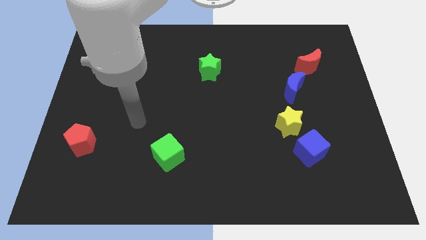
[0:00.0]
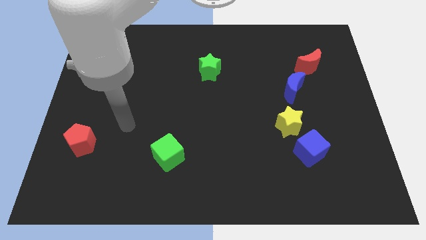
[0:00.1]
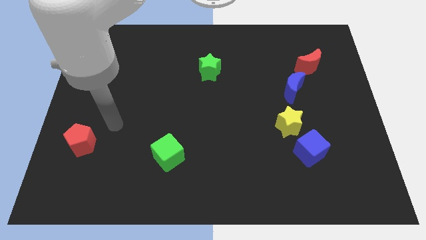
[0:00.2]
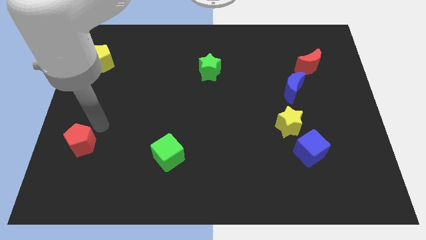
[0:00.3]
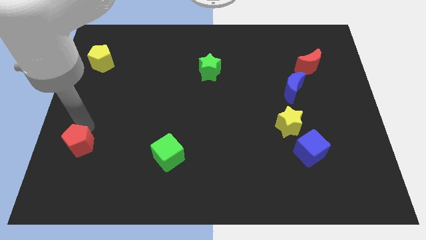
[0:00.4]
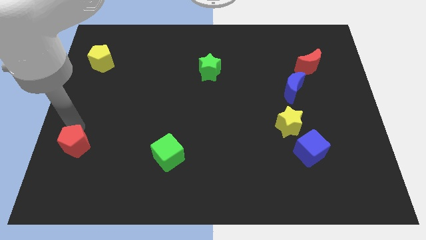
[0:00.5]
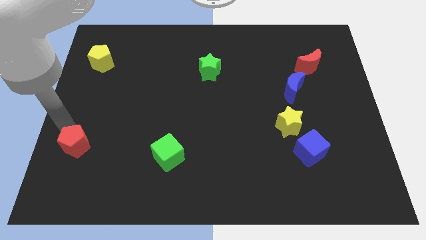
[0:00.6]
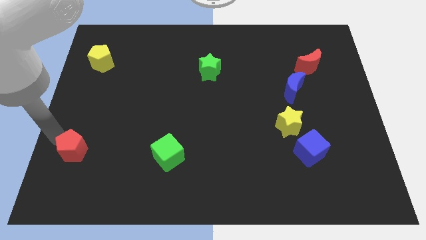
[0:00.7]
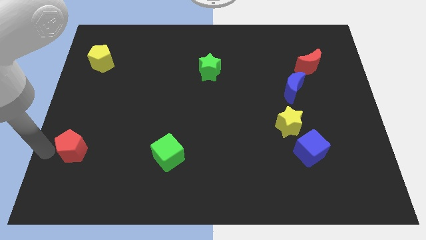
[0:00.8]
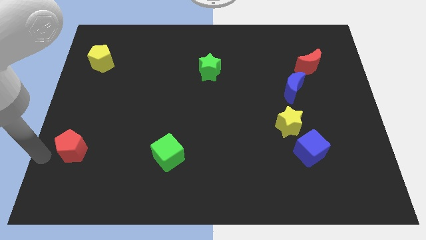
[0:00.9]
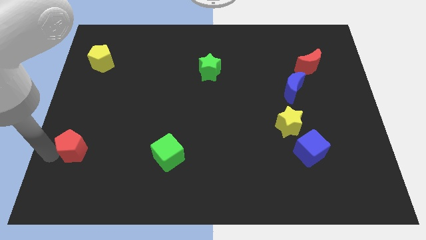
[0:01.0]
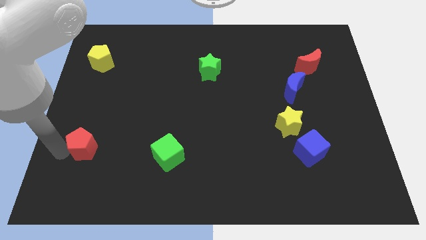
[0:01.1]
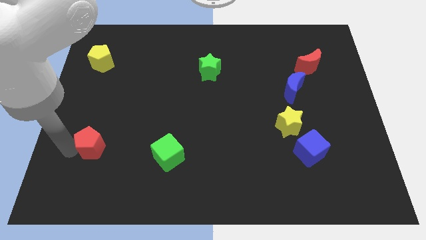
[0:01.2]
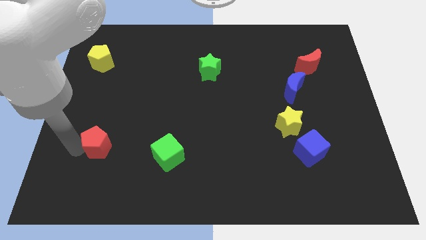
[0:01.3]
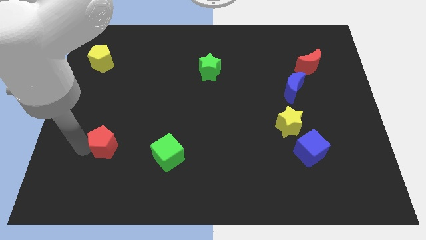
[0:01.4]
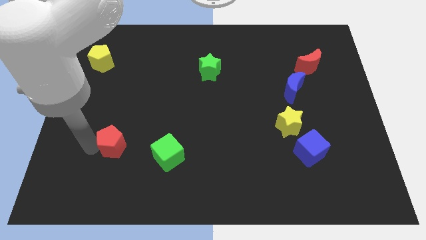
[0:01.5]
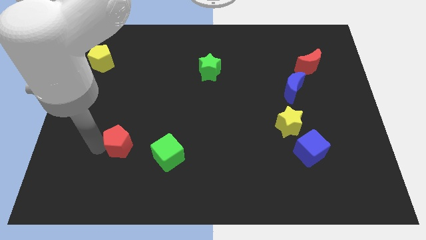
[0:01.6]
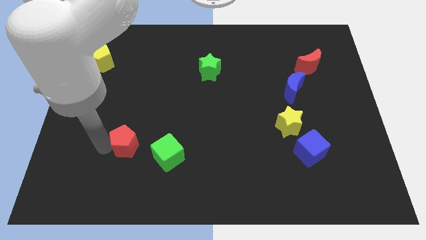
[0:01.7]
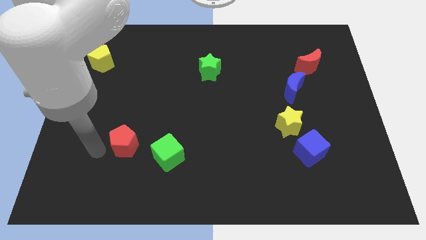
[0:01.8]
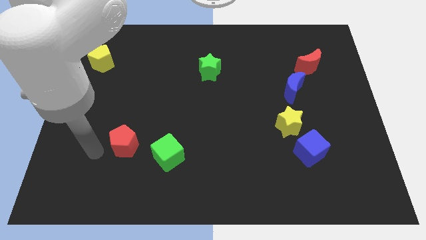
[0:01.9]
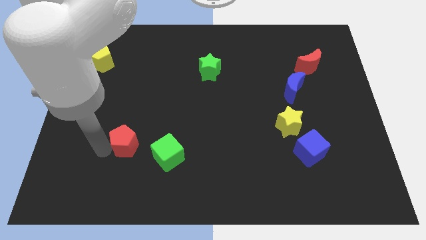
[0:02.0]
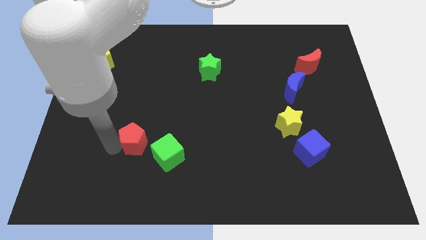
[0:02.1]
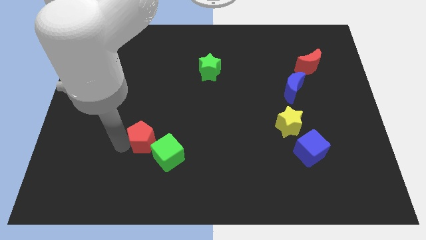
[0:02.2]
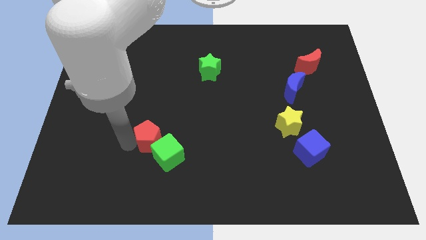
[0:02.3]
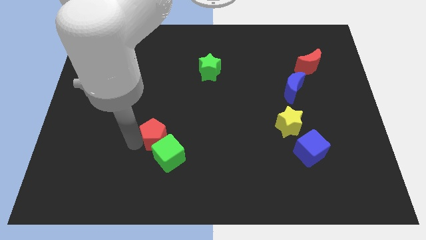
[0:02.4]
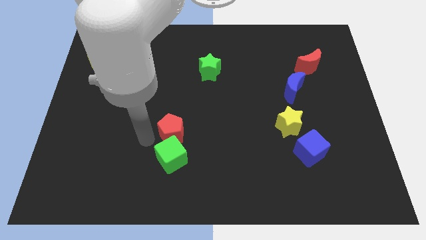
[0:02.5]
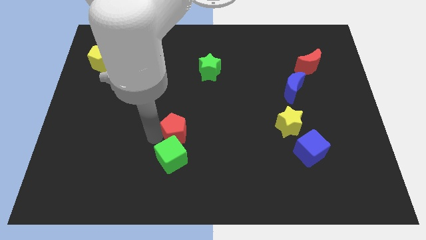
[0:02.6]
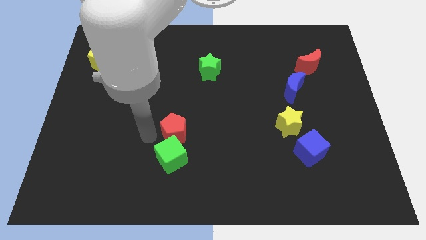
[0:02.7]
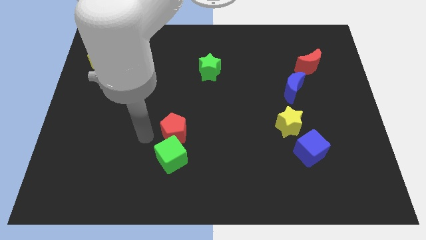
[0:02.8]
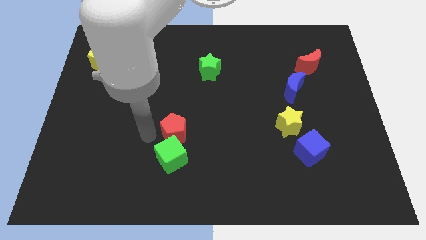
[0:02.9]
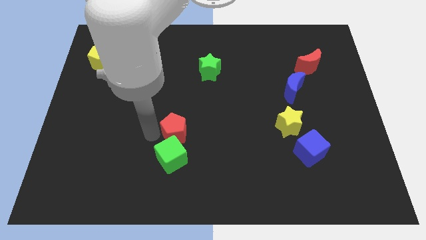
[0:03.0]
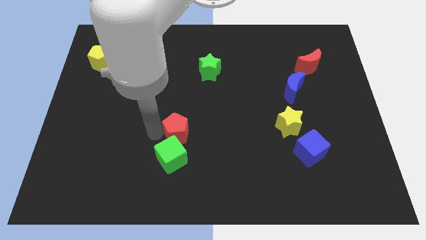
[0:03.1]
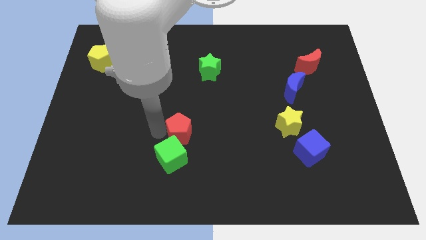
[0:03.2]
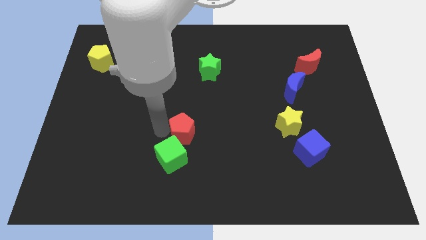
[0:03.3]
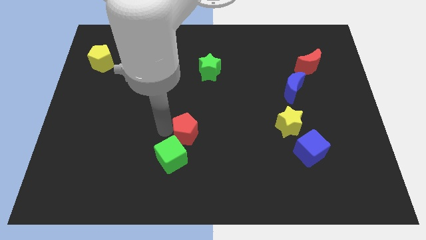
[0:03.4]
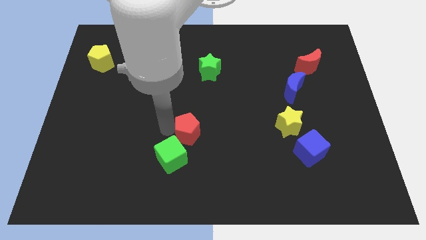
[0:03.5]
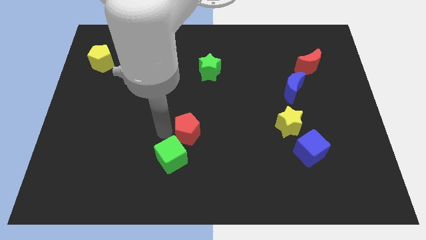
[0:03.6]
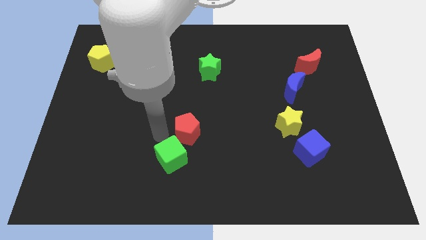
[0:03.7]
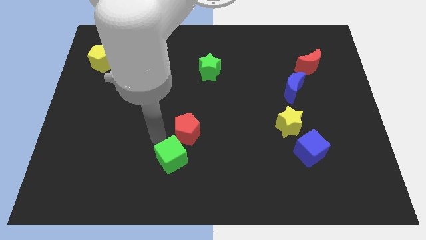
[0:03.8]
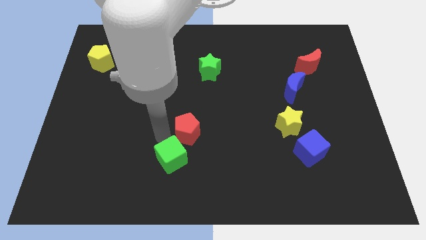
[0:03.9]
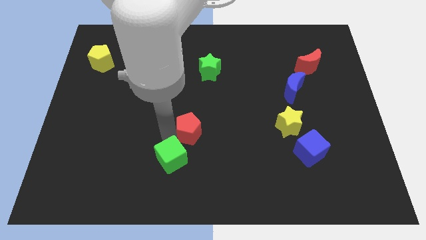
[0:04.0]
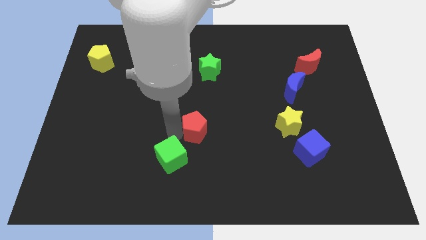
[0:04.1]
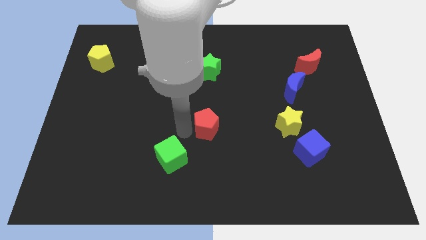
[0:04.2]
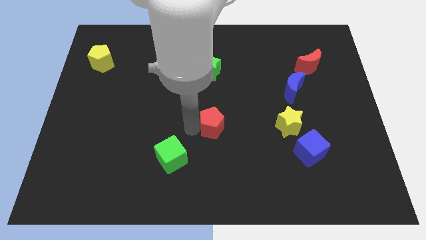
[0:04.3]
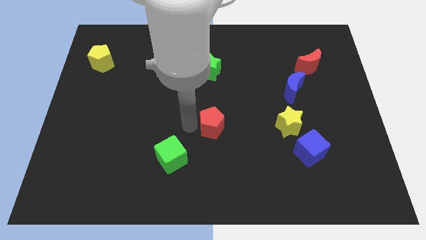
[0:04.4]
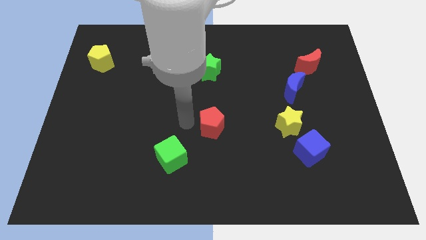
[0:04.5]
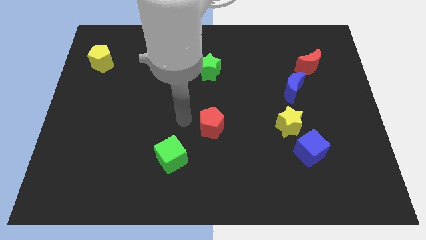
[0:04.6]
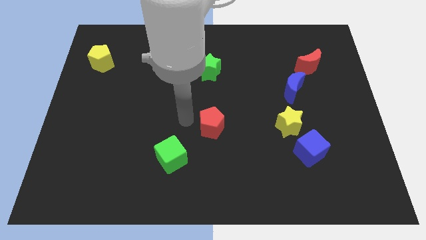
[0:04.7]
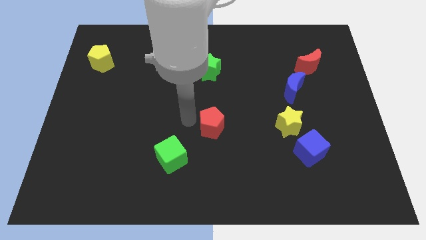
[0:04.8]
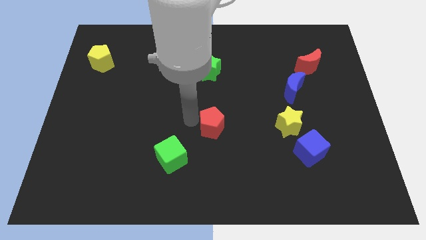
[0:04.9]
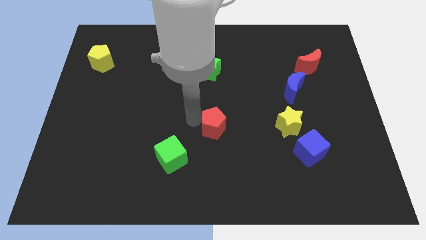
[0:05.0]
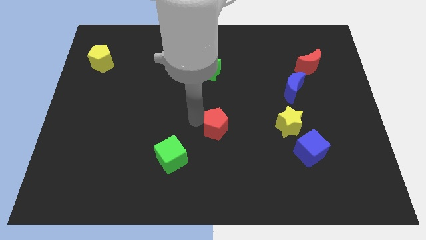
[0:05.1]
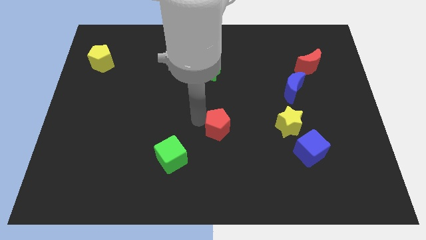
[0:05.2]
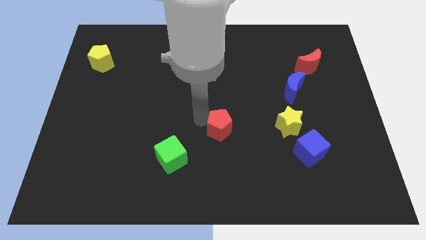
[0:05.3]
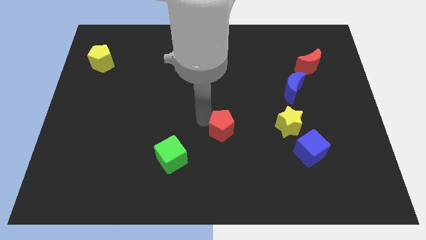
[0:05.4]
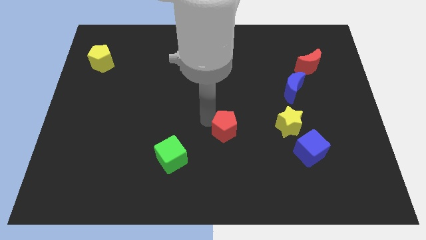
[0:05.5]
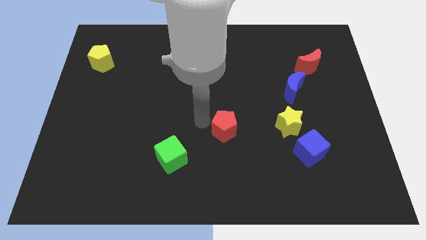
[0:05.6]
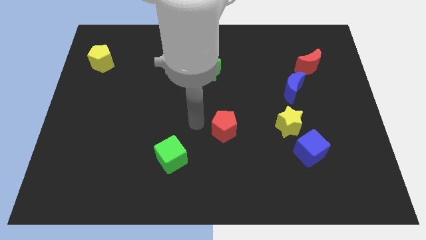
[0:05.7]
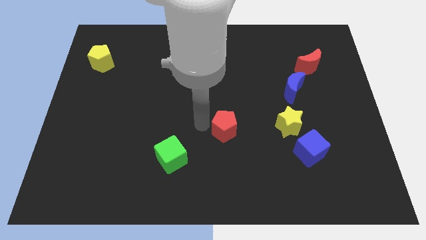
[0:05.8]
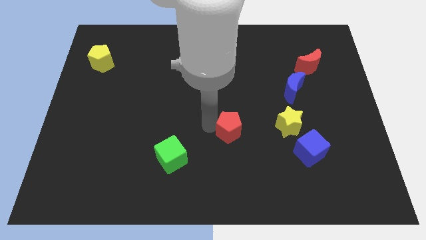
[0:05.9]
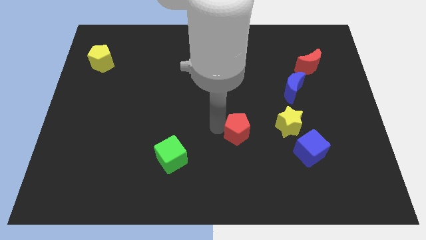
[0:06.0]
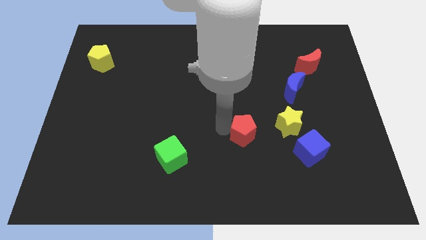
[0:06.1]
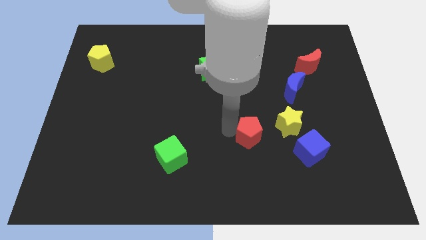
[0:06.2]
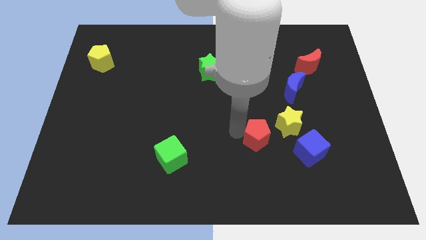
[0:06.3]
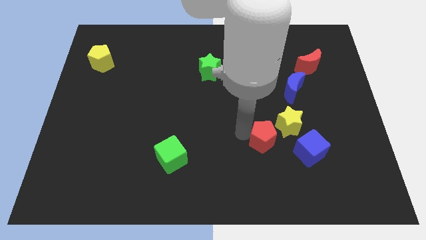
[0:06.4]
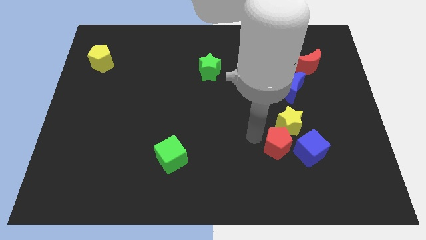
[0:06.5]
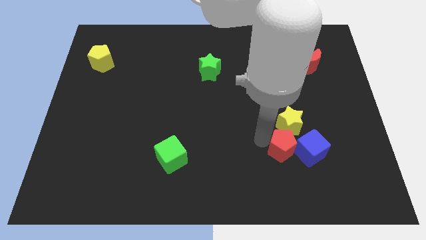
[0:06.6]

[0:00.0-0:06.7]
move the red pentagon towards the blue cube

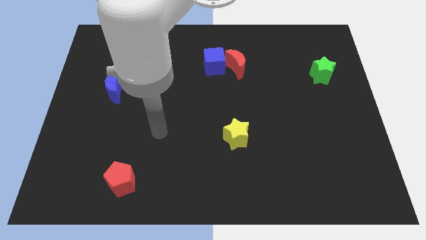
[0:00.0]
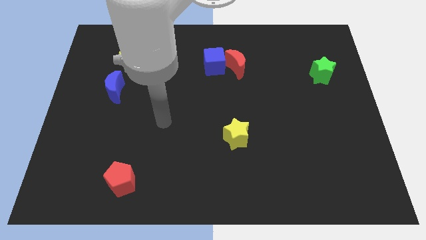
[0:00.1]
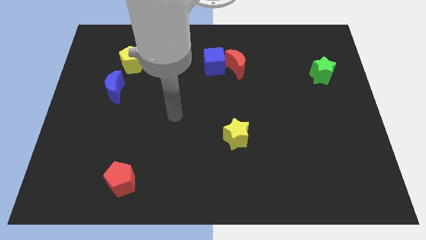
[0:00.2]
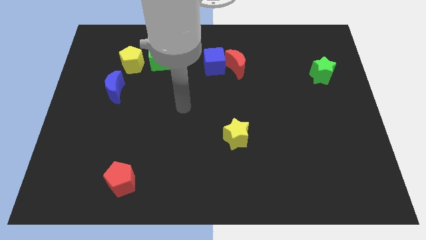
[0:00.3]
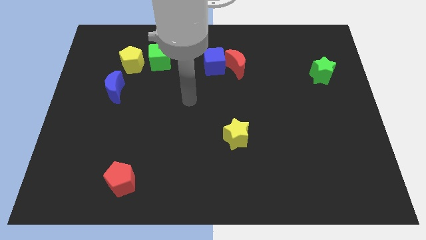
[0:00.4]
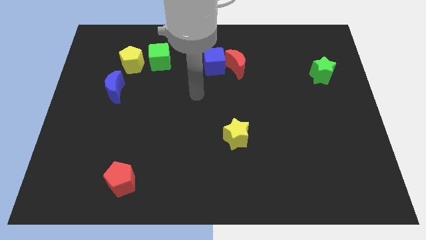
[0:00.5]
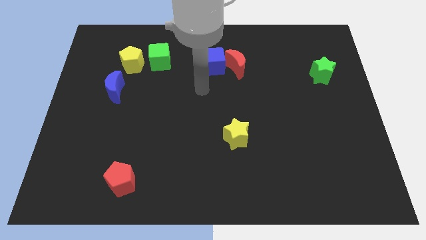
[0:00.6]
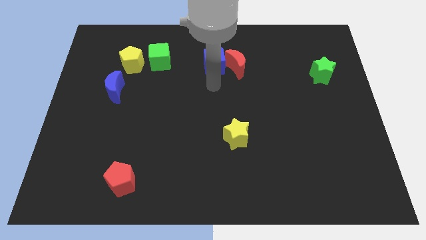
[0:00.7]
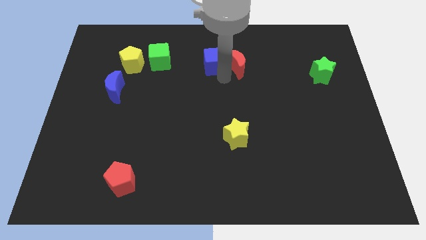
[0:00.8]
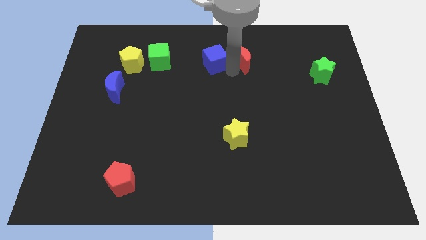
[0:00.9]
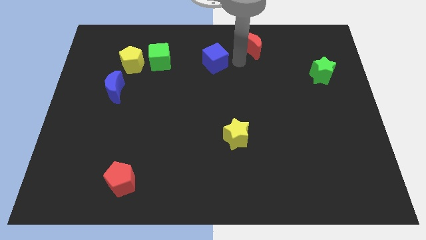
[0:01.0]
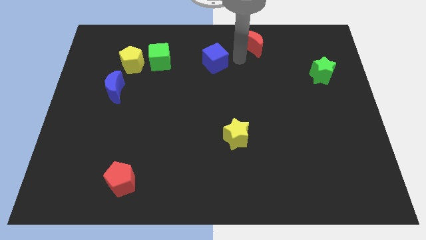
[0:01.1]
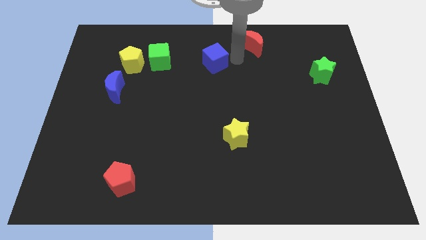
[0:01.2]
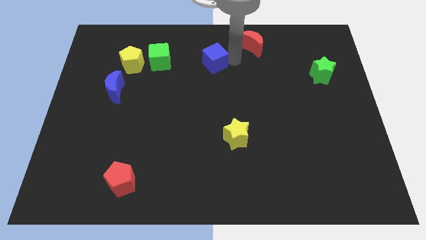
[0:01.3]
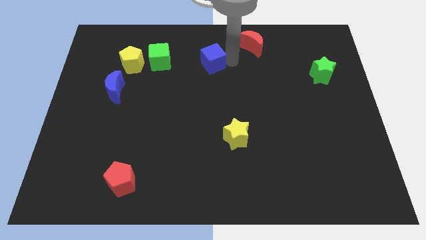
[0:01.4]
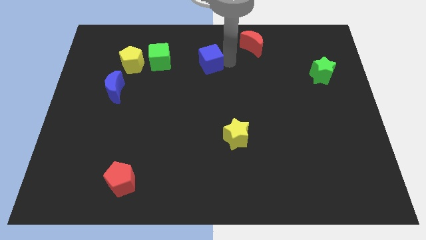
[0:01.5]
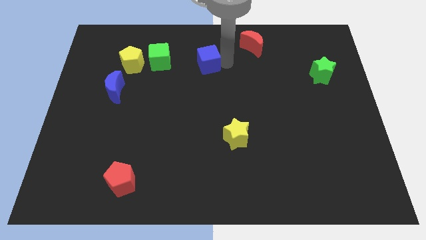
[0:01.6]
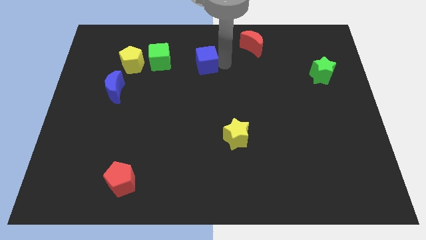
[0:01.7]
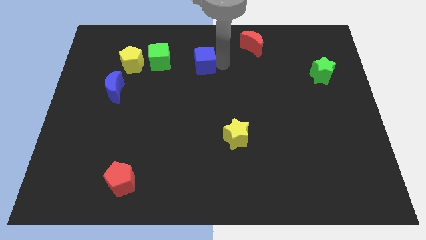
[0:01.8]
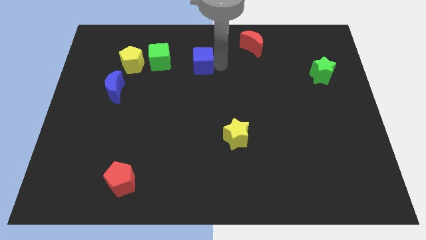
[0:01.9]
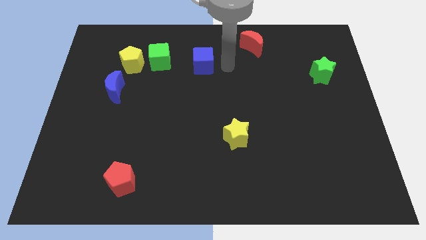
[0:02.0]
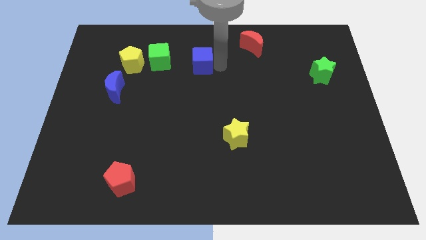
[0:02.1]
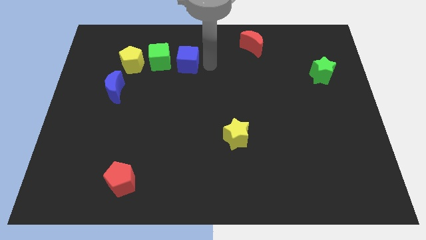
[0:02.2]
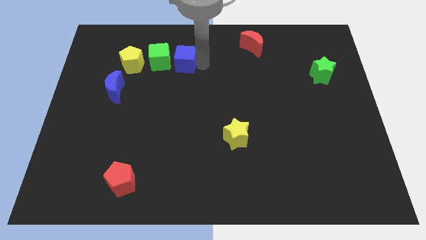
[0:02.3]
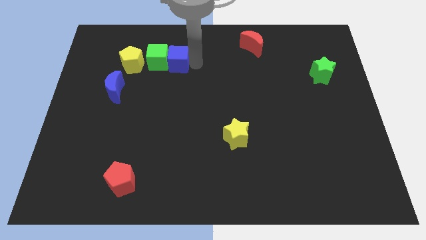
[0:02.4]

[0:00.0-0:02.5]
push the blue cube close to the green cube
